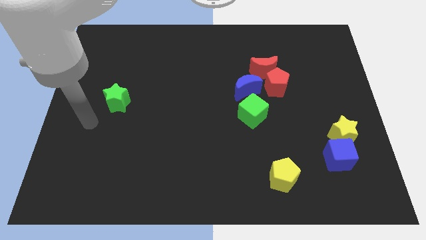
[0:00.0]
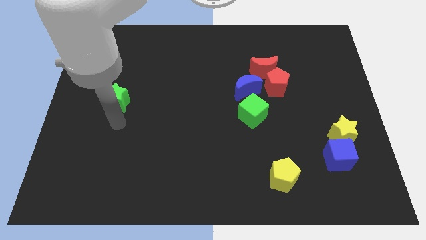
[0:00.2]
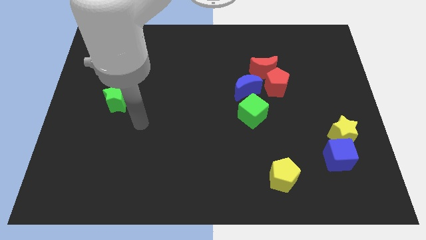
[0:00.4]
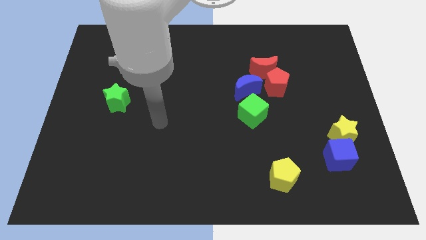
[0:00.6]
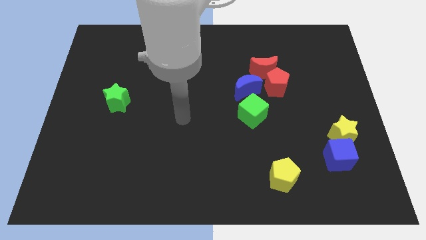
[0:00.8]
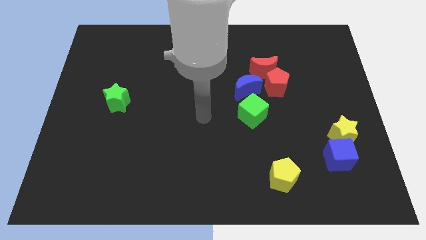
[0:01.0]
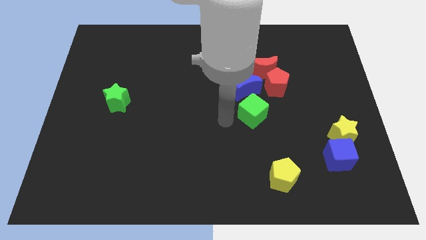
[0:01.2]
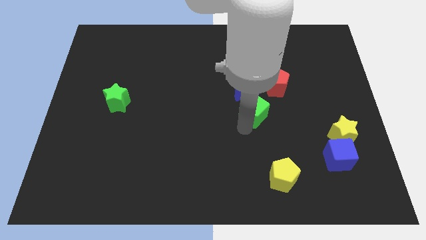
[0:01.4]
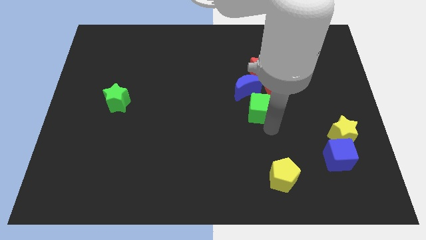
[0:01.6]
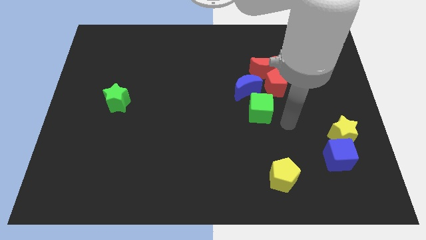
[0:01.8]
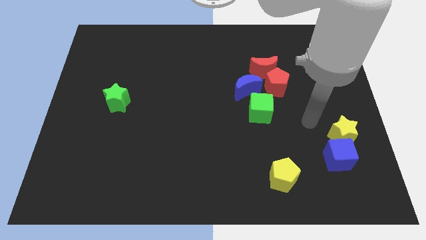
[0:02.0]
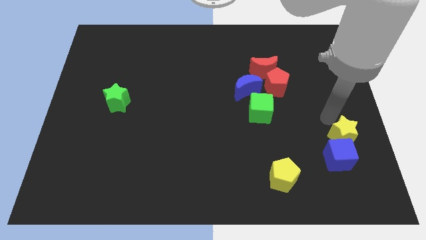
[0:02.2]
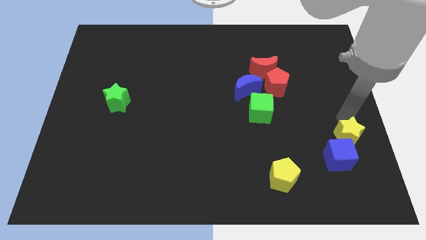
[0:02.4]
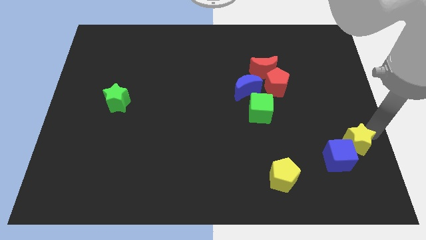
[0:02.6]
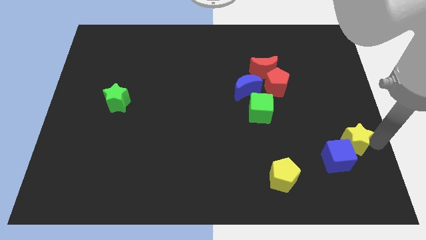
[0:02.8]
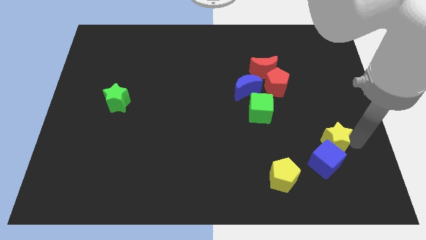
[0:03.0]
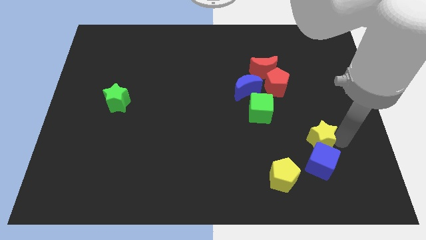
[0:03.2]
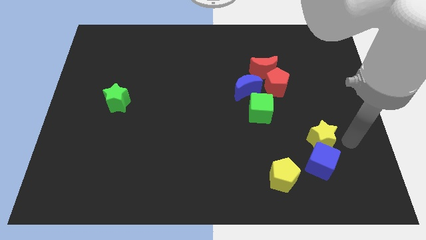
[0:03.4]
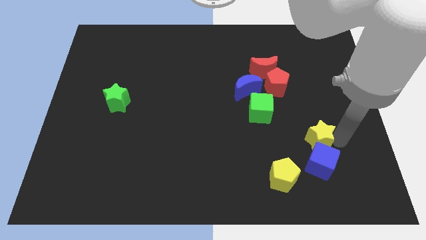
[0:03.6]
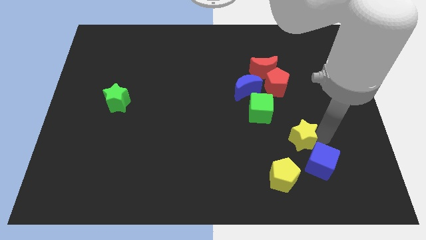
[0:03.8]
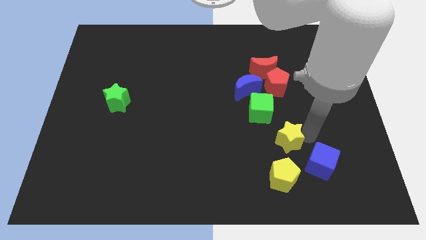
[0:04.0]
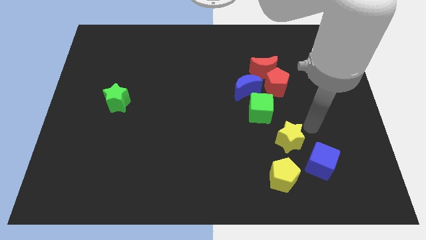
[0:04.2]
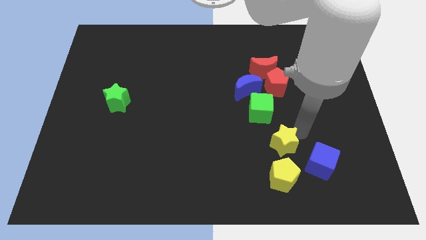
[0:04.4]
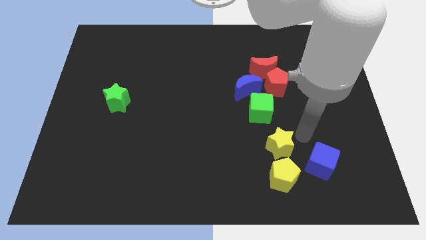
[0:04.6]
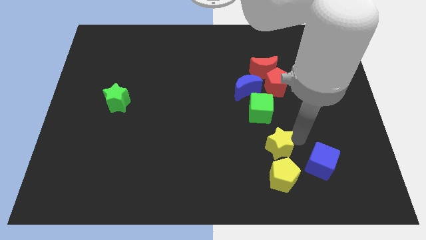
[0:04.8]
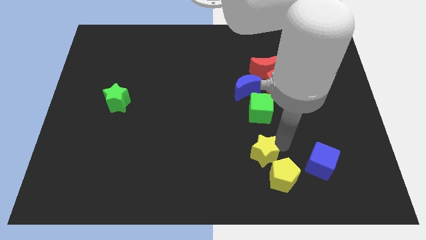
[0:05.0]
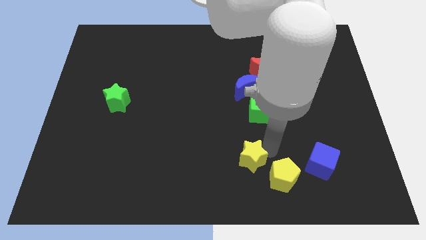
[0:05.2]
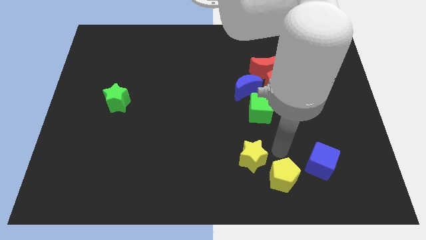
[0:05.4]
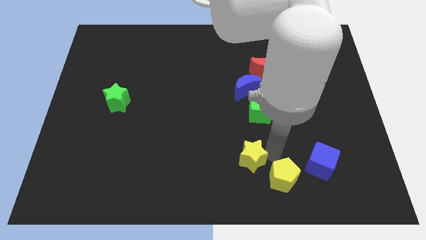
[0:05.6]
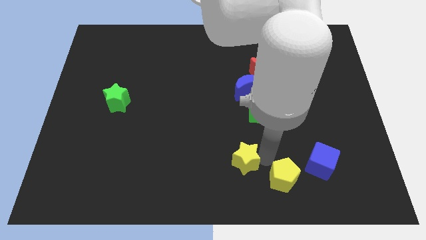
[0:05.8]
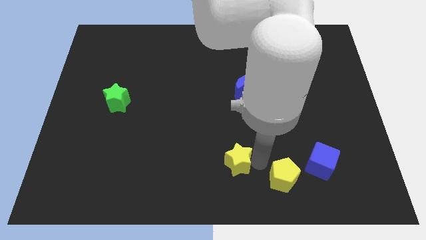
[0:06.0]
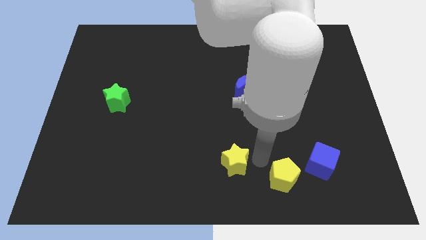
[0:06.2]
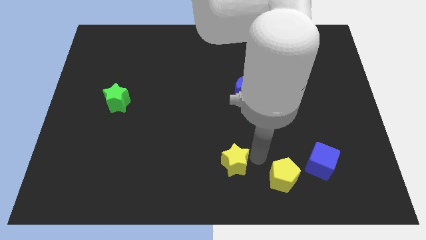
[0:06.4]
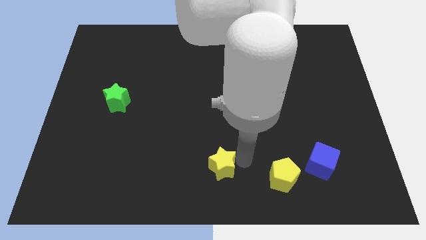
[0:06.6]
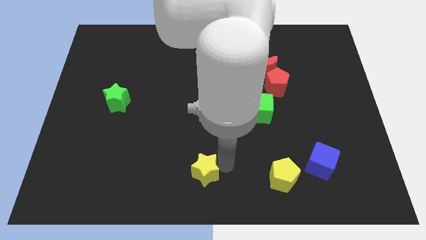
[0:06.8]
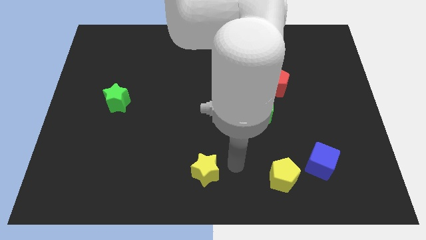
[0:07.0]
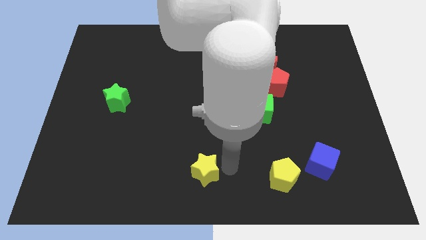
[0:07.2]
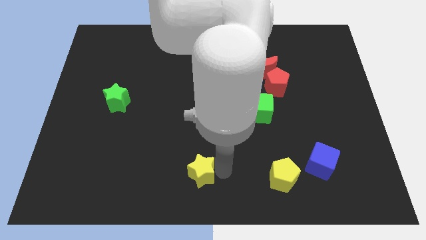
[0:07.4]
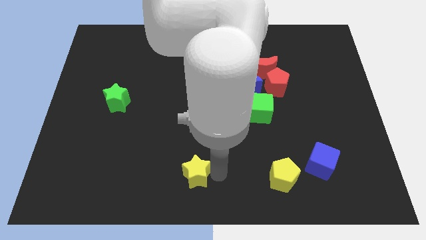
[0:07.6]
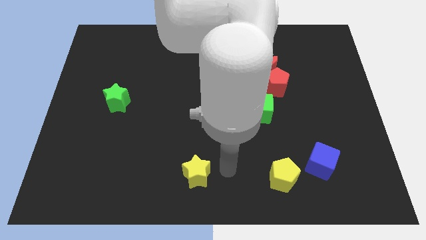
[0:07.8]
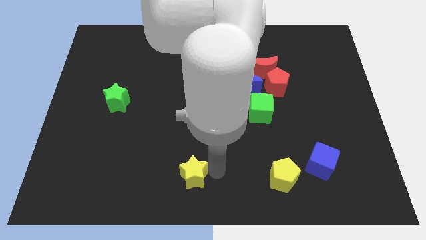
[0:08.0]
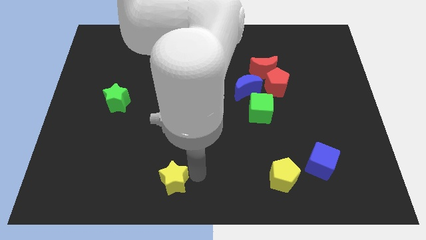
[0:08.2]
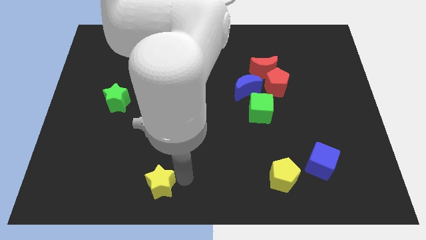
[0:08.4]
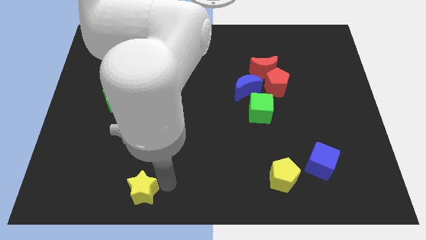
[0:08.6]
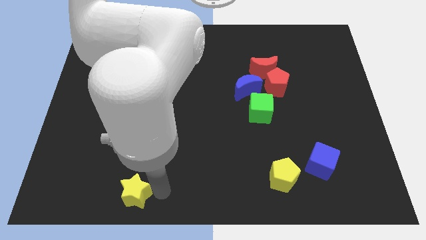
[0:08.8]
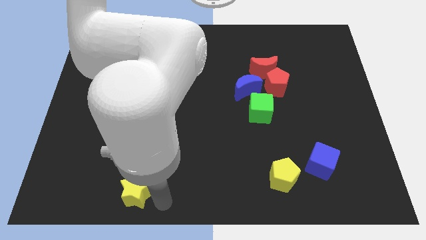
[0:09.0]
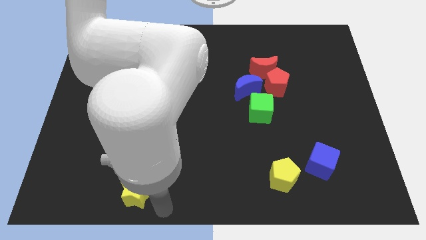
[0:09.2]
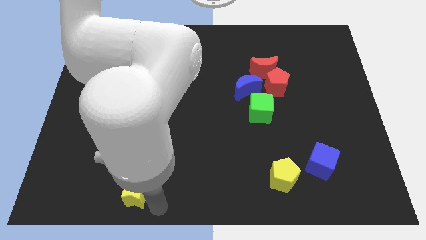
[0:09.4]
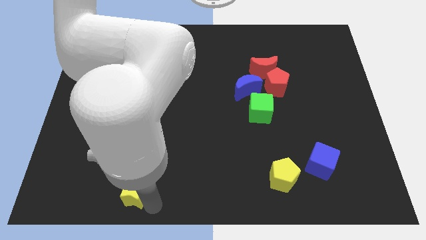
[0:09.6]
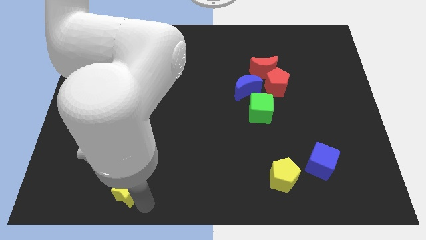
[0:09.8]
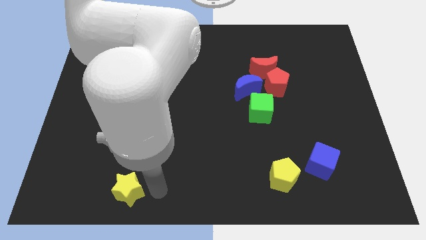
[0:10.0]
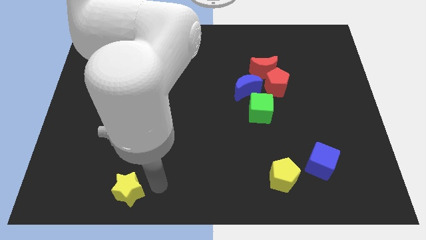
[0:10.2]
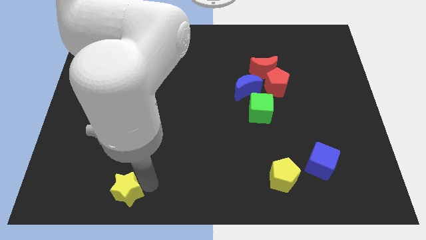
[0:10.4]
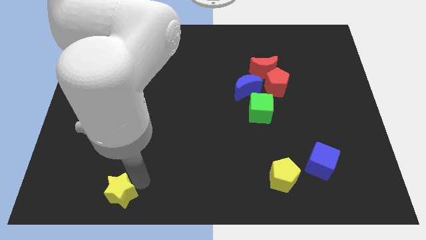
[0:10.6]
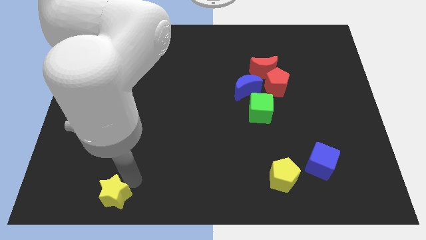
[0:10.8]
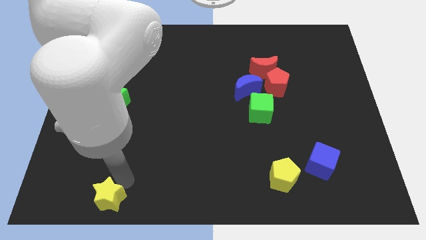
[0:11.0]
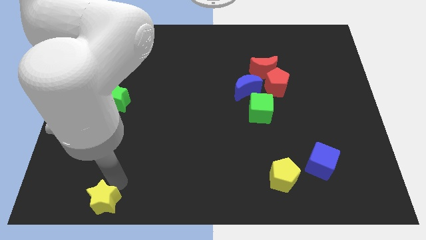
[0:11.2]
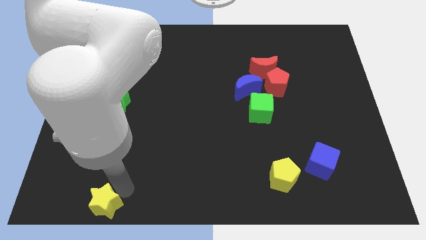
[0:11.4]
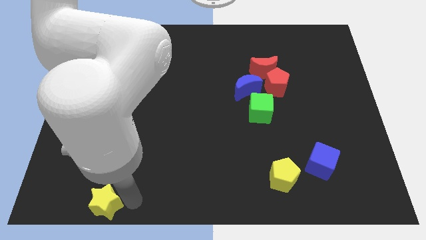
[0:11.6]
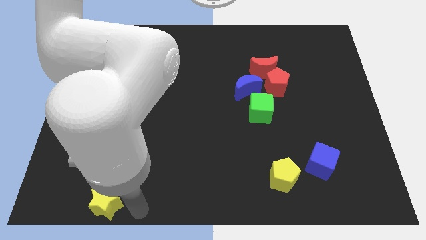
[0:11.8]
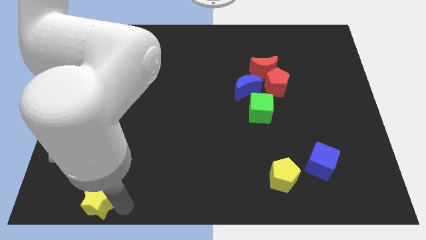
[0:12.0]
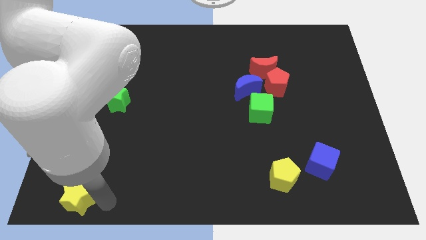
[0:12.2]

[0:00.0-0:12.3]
put the yellow star to the bottom left corner
